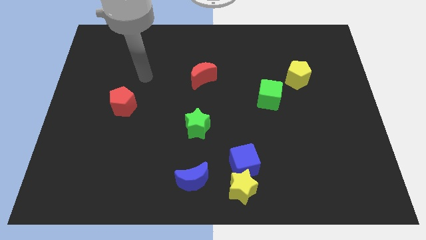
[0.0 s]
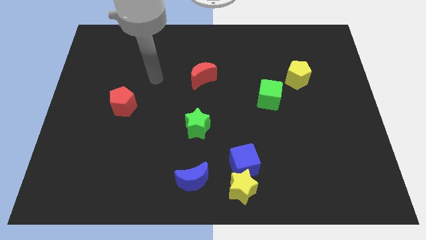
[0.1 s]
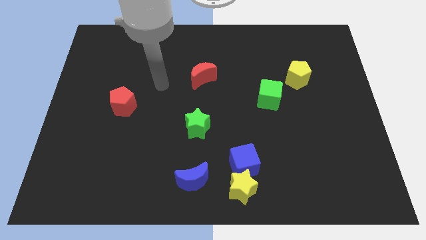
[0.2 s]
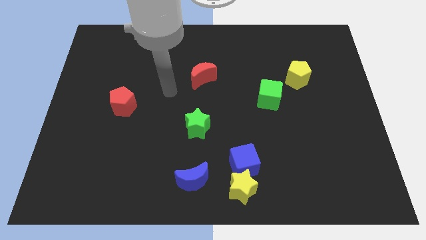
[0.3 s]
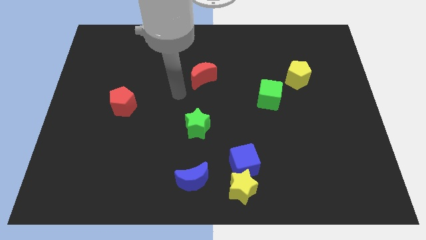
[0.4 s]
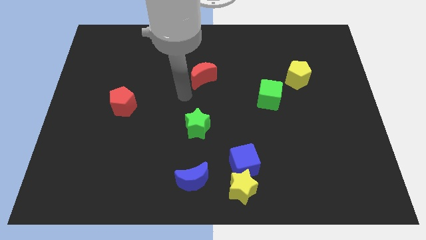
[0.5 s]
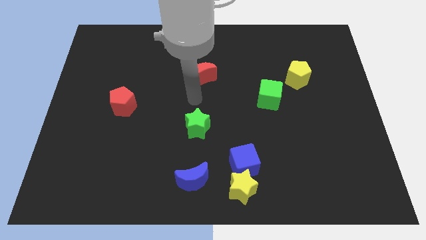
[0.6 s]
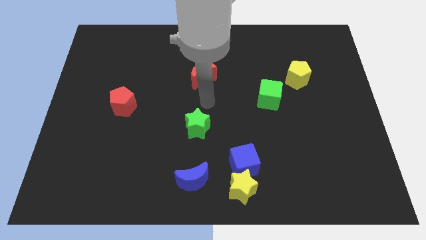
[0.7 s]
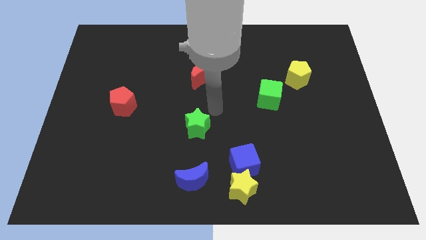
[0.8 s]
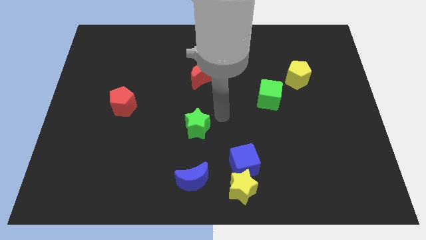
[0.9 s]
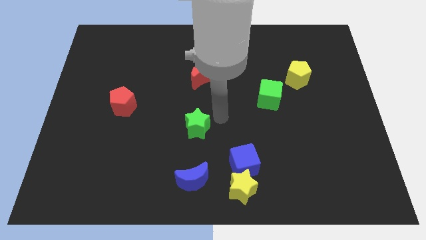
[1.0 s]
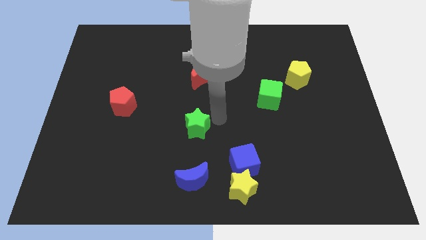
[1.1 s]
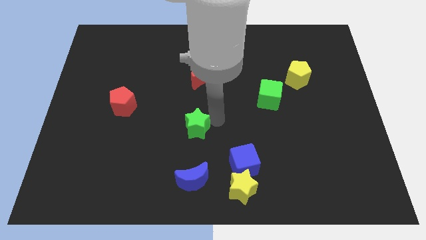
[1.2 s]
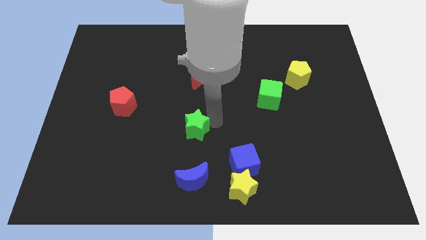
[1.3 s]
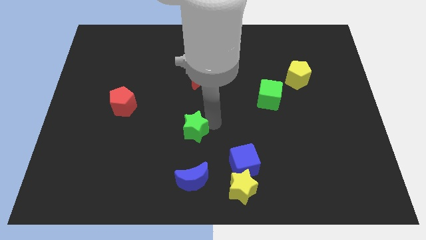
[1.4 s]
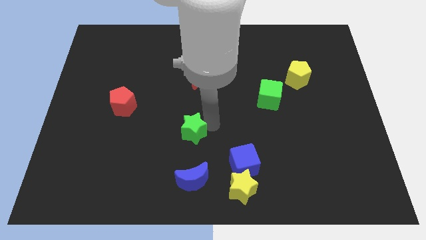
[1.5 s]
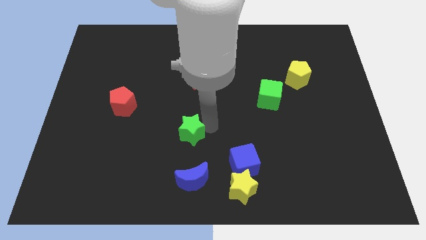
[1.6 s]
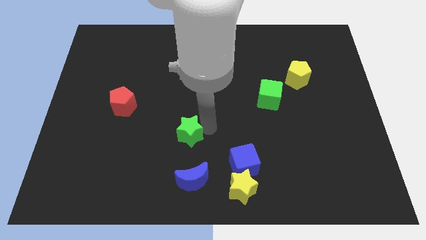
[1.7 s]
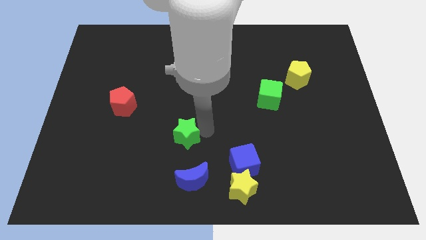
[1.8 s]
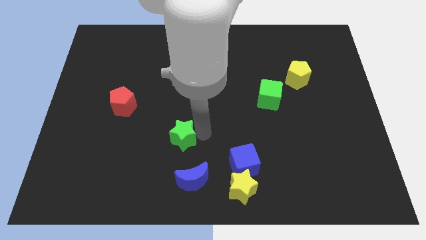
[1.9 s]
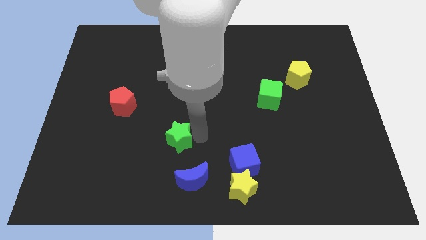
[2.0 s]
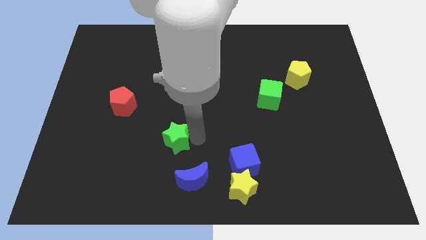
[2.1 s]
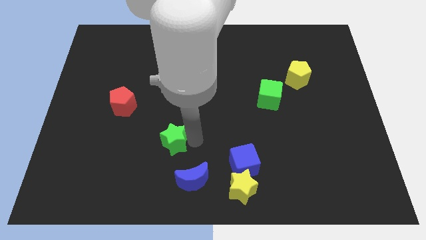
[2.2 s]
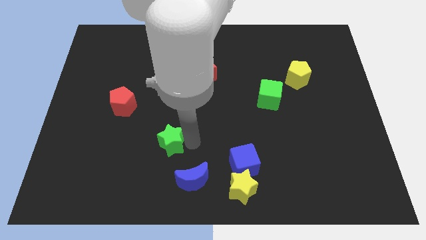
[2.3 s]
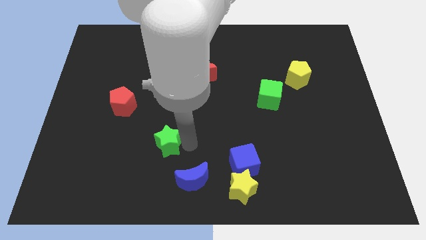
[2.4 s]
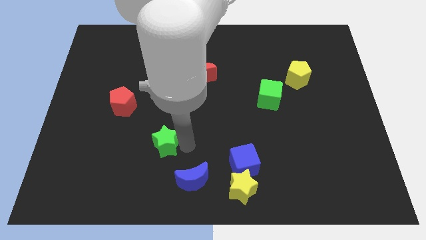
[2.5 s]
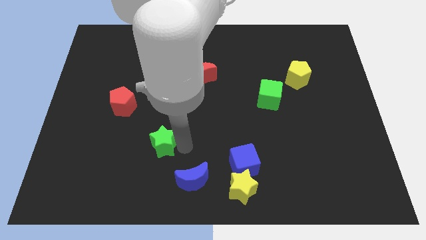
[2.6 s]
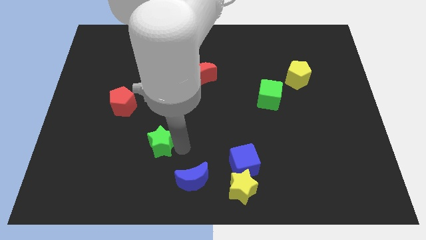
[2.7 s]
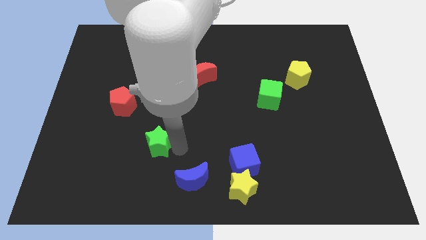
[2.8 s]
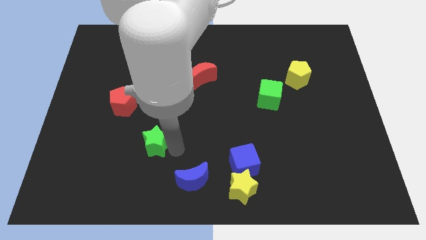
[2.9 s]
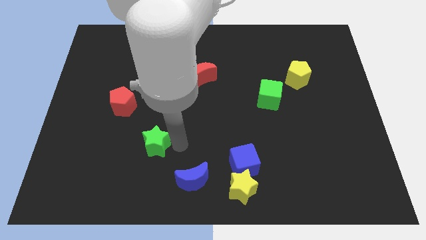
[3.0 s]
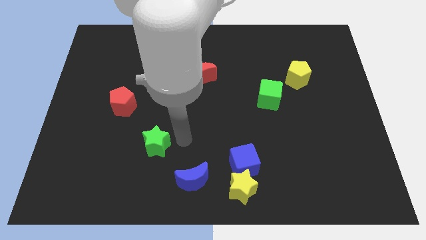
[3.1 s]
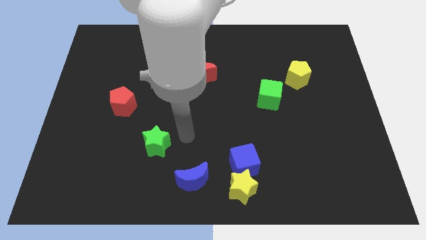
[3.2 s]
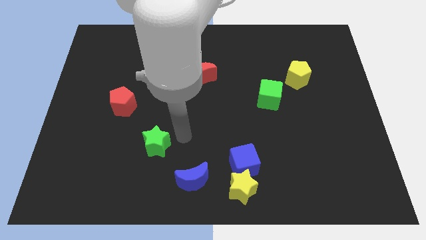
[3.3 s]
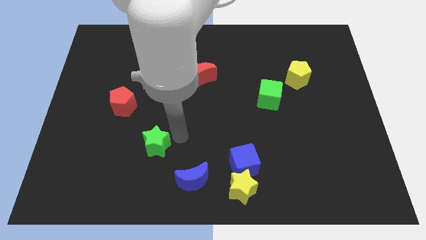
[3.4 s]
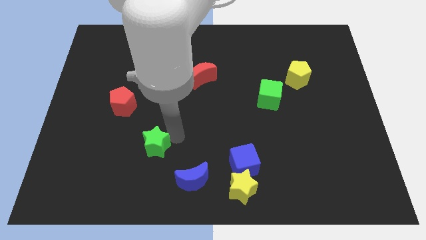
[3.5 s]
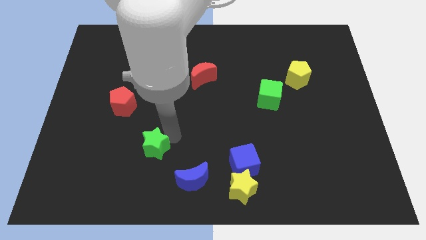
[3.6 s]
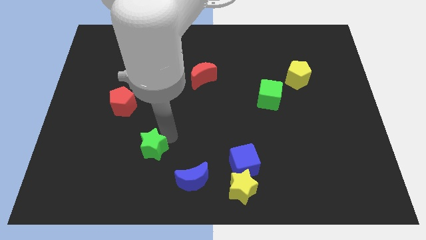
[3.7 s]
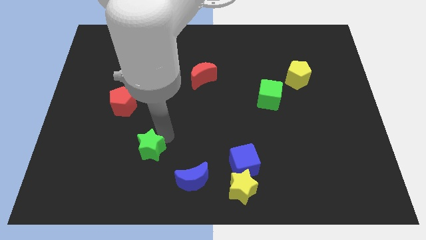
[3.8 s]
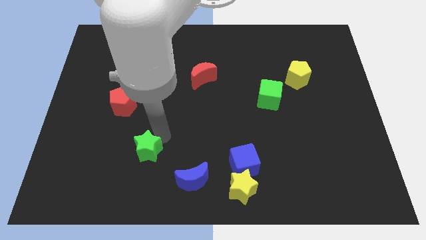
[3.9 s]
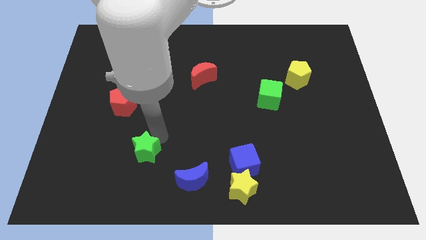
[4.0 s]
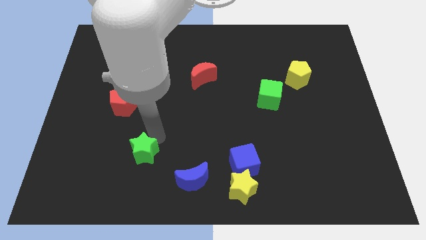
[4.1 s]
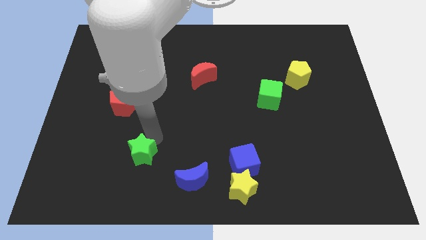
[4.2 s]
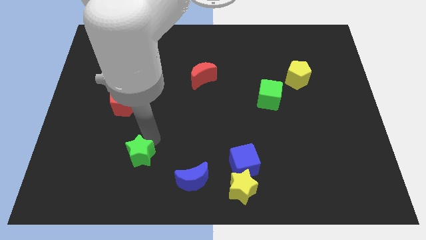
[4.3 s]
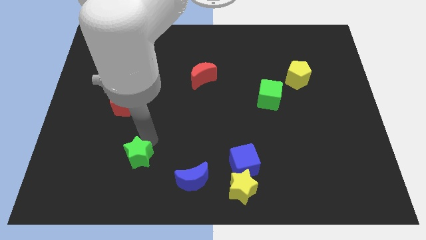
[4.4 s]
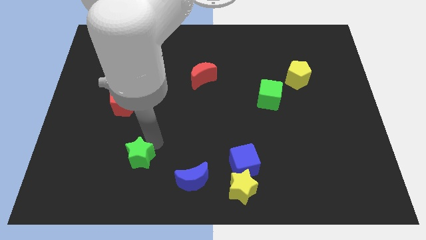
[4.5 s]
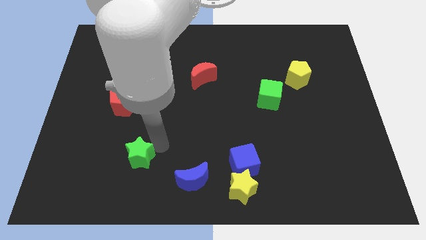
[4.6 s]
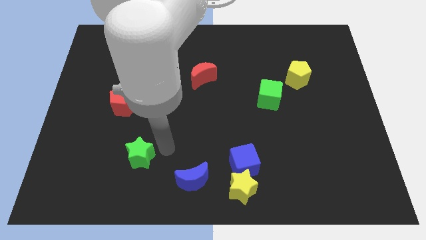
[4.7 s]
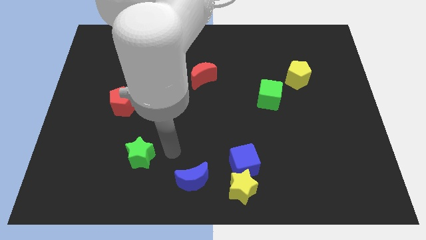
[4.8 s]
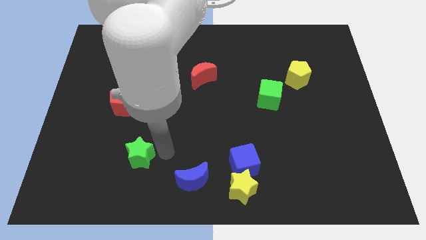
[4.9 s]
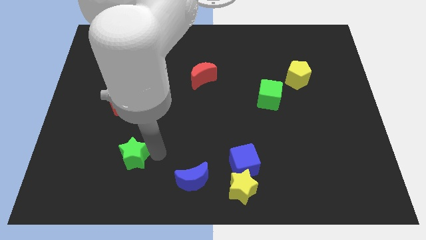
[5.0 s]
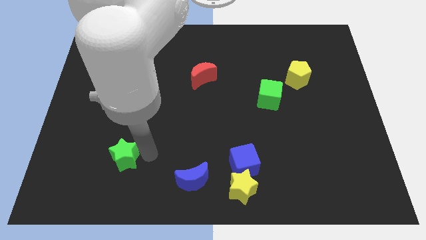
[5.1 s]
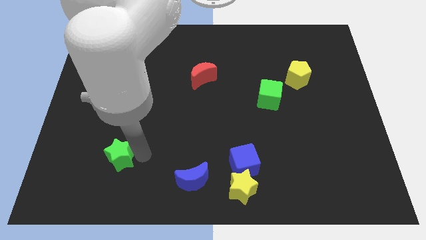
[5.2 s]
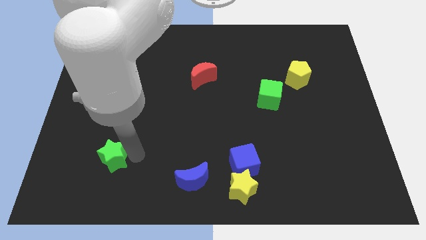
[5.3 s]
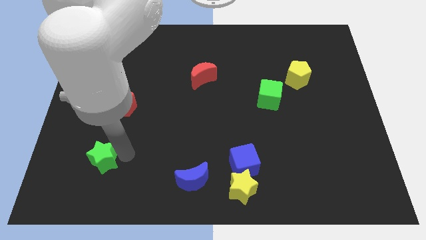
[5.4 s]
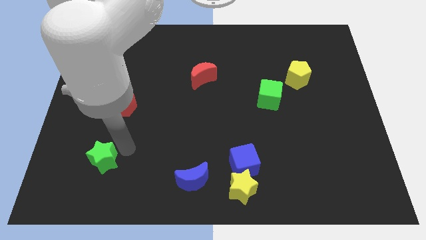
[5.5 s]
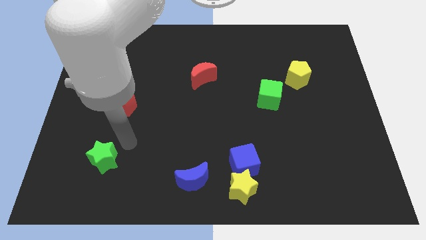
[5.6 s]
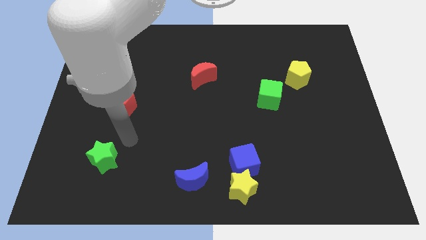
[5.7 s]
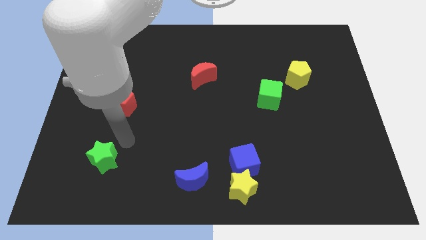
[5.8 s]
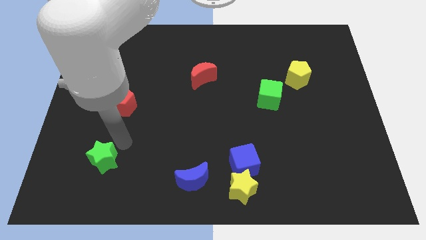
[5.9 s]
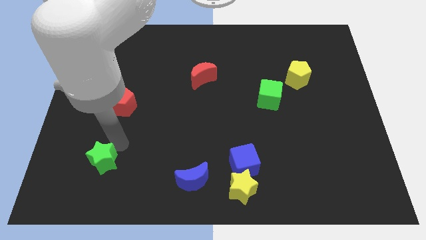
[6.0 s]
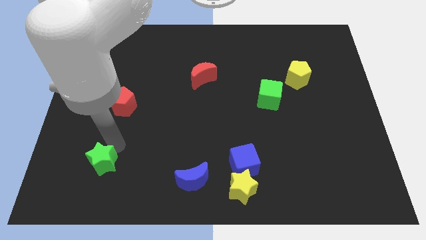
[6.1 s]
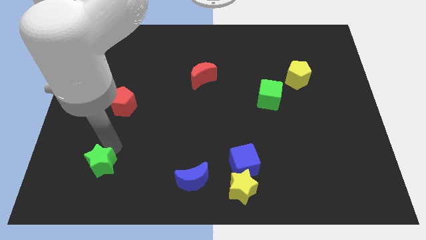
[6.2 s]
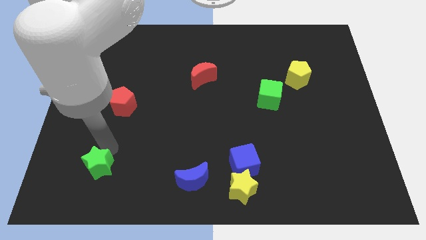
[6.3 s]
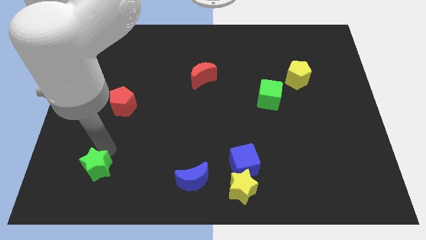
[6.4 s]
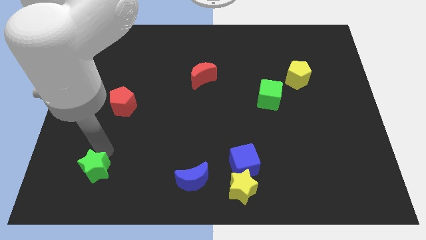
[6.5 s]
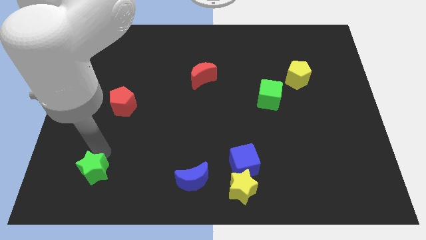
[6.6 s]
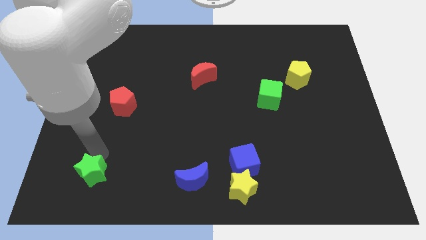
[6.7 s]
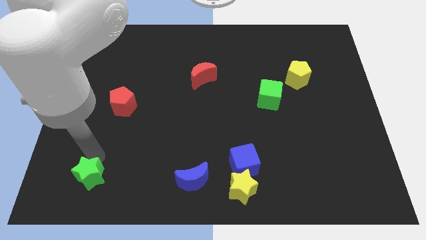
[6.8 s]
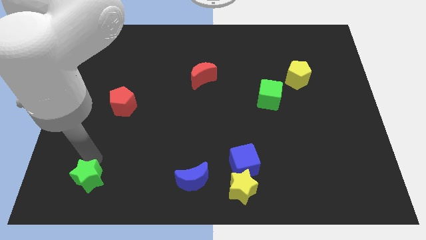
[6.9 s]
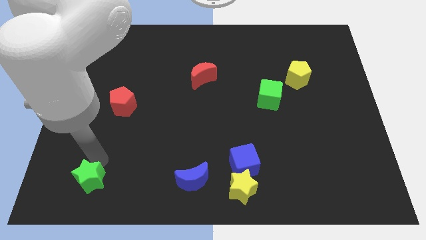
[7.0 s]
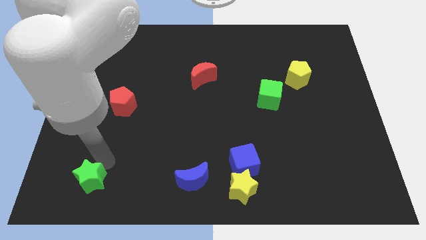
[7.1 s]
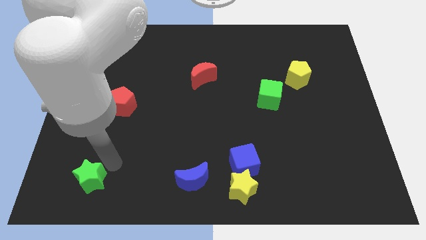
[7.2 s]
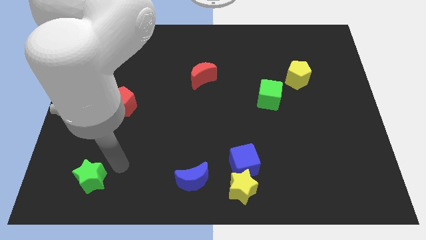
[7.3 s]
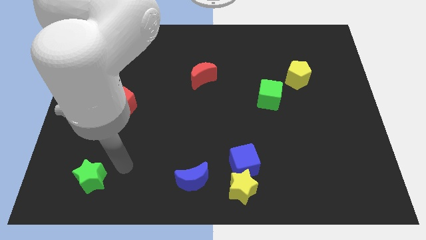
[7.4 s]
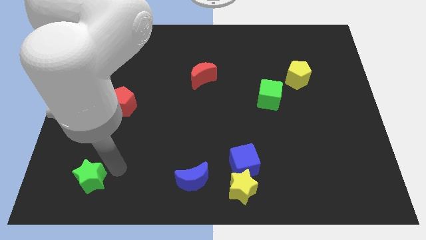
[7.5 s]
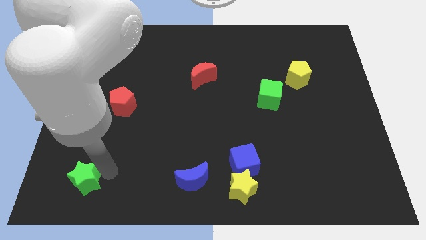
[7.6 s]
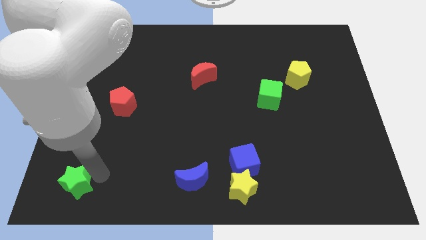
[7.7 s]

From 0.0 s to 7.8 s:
slide the green star to the bottom left corner
